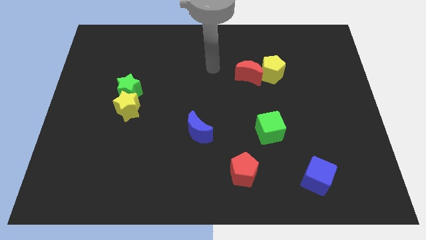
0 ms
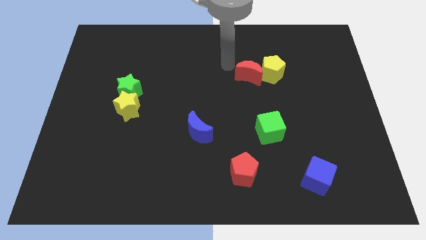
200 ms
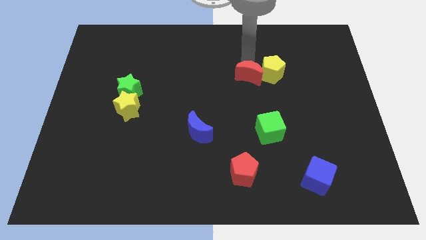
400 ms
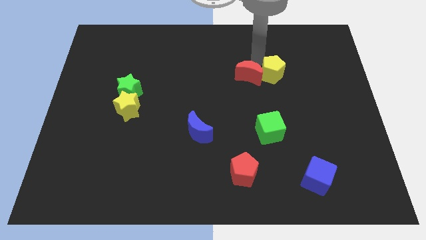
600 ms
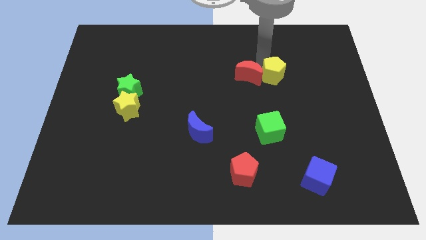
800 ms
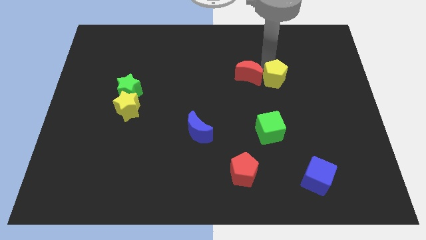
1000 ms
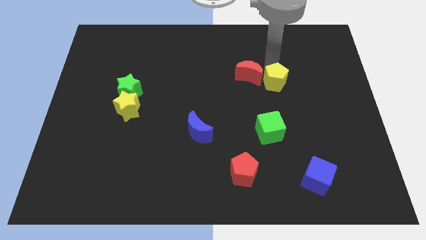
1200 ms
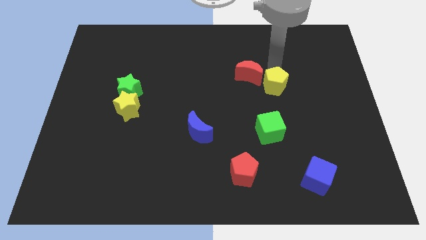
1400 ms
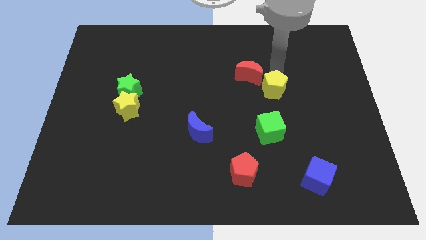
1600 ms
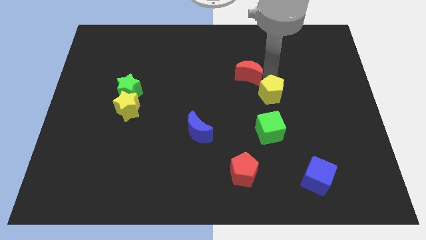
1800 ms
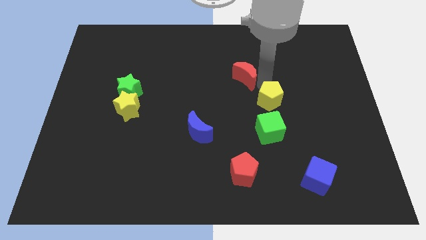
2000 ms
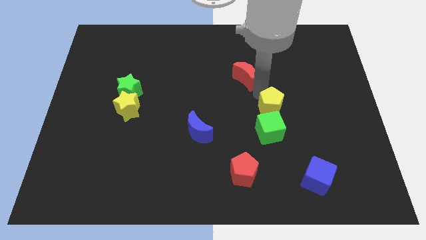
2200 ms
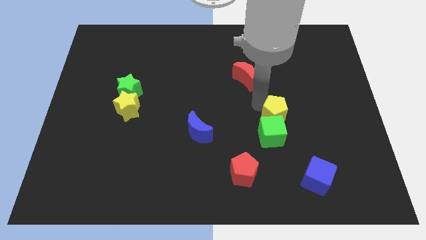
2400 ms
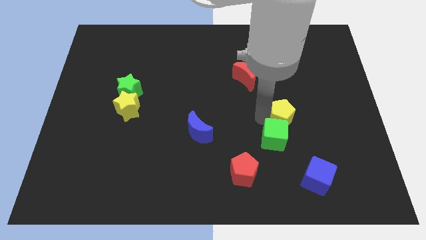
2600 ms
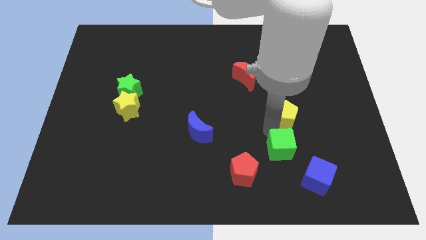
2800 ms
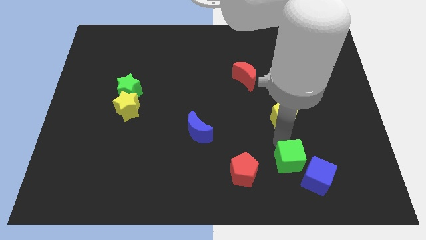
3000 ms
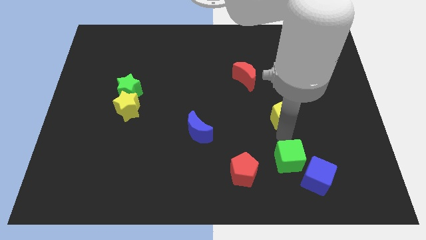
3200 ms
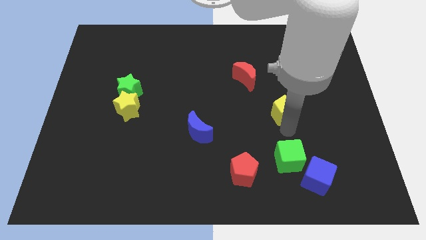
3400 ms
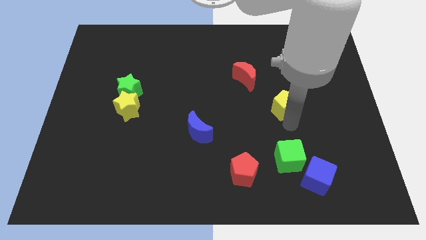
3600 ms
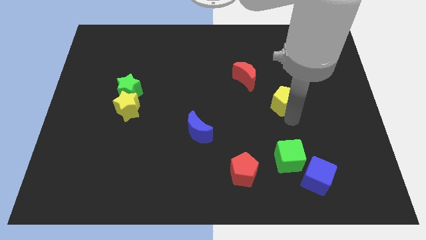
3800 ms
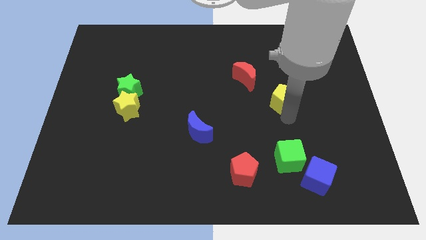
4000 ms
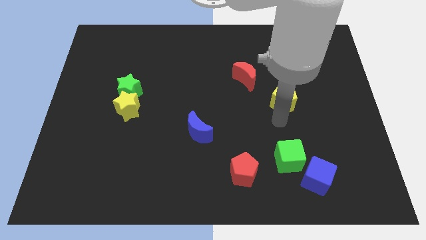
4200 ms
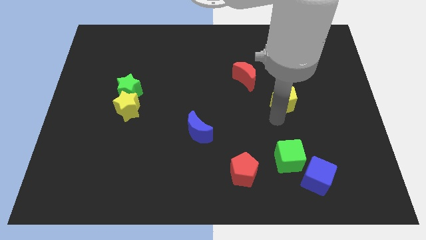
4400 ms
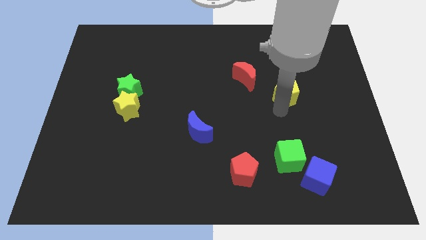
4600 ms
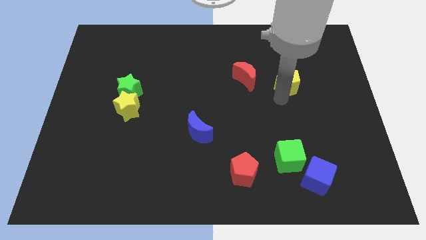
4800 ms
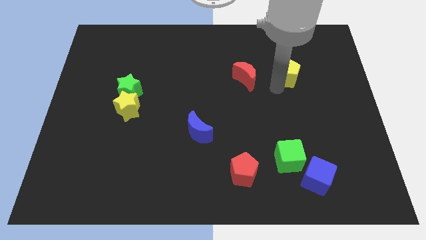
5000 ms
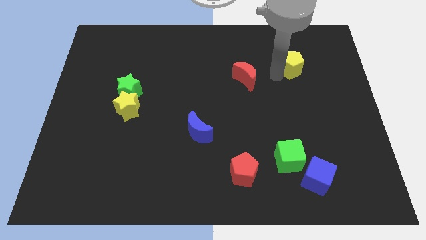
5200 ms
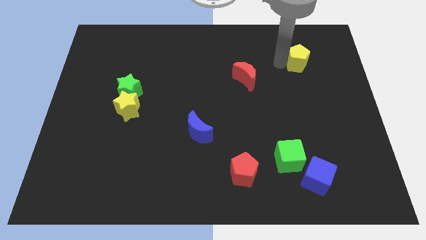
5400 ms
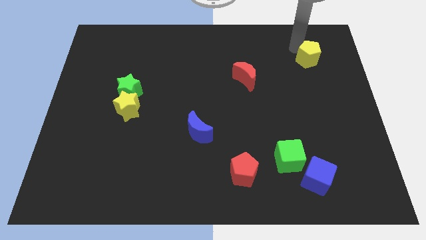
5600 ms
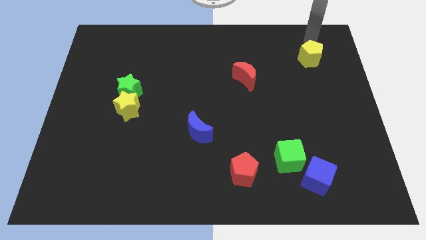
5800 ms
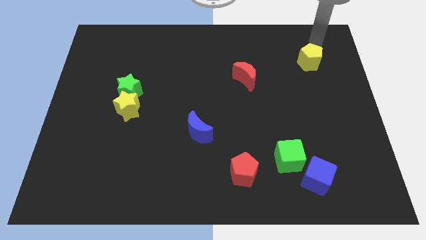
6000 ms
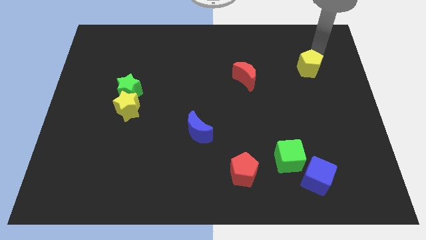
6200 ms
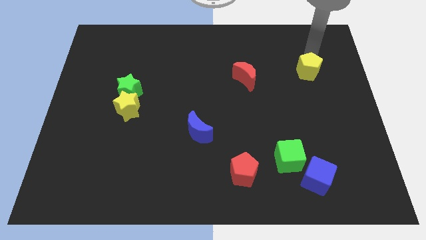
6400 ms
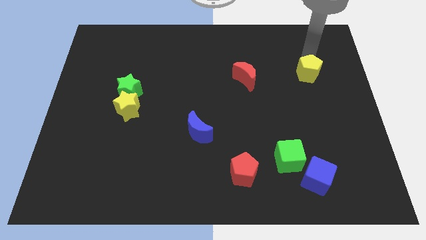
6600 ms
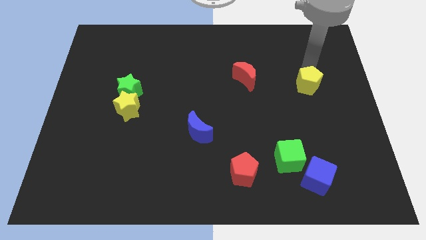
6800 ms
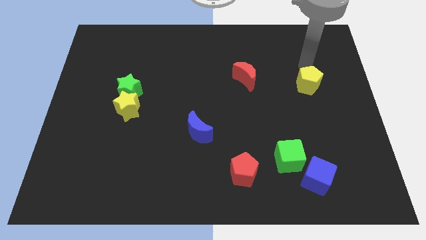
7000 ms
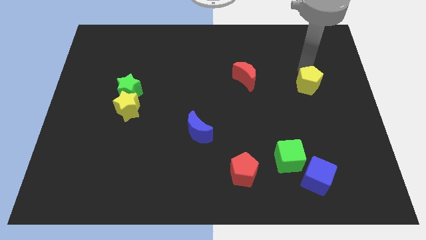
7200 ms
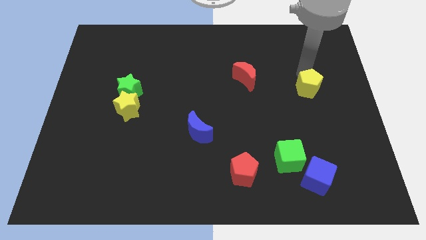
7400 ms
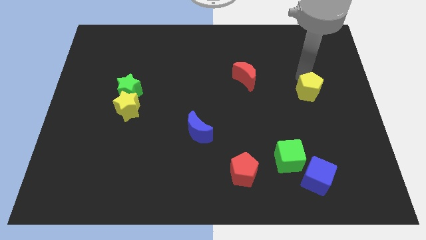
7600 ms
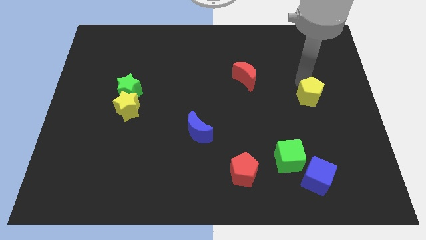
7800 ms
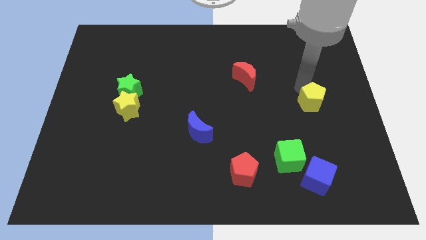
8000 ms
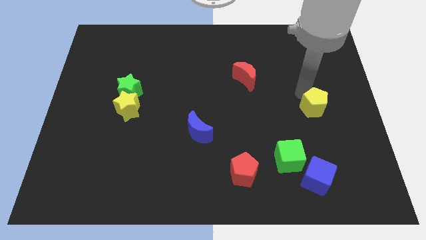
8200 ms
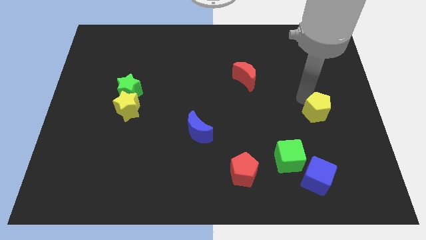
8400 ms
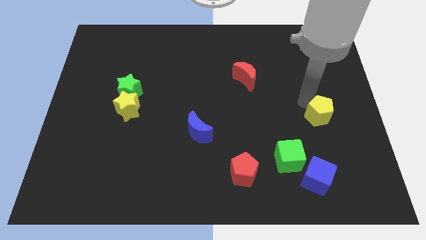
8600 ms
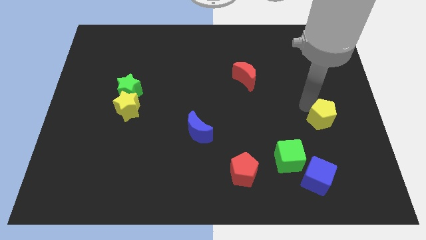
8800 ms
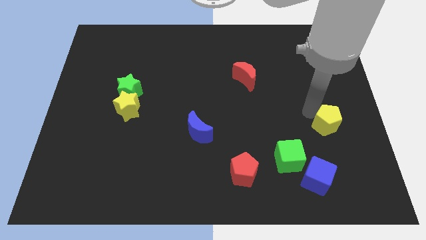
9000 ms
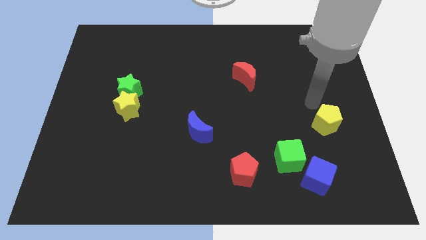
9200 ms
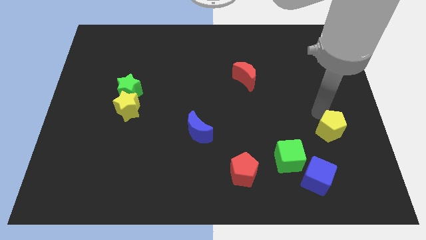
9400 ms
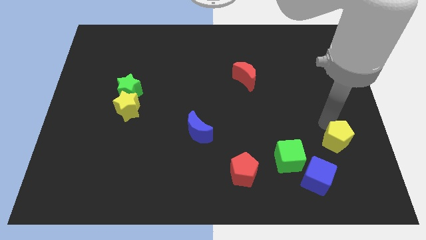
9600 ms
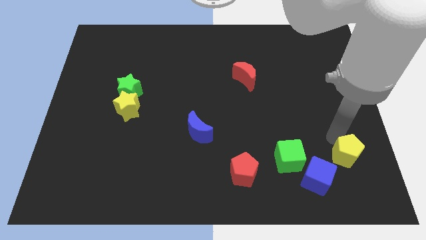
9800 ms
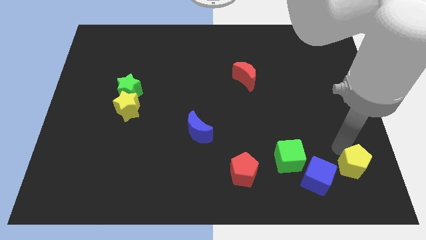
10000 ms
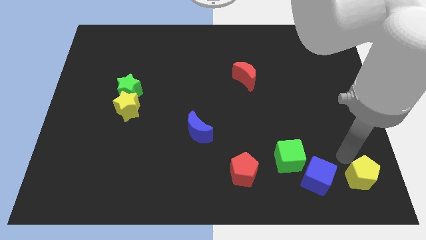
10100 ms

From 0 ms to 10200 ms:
move the yellow pentagon to the bottom right corner

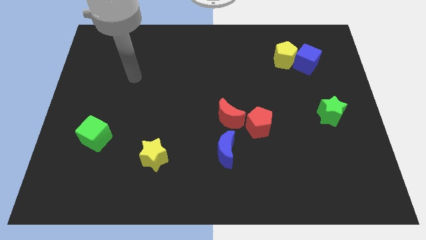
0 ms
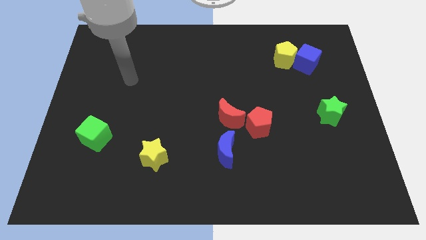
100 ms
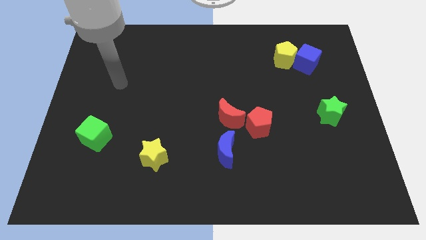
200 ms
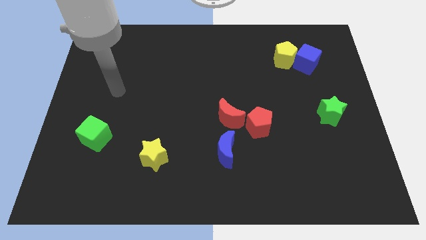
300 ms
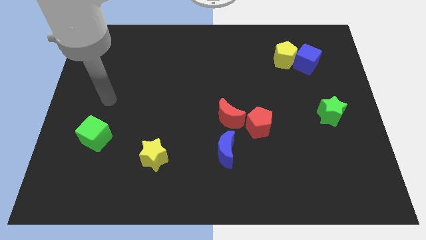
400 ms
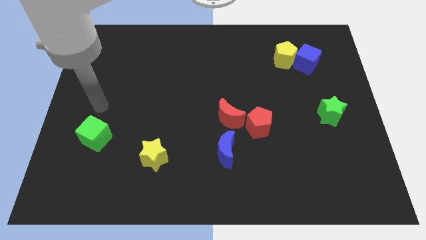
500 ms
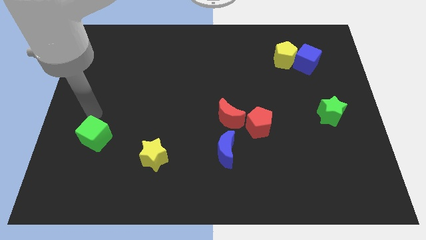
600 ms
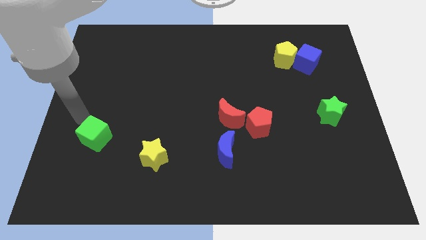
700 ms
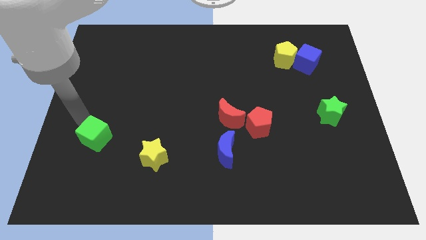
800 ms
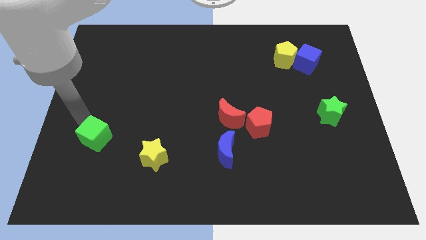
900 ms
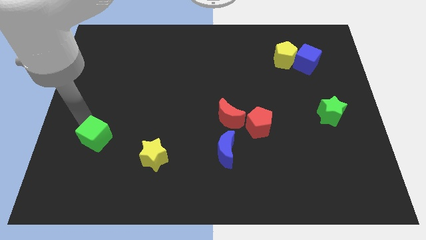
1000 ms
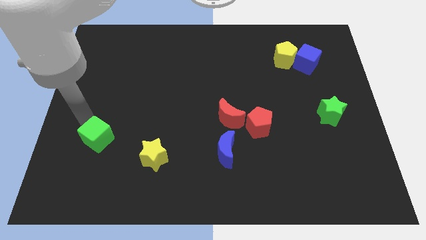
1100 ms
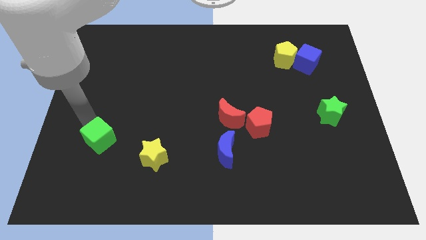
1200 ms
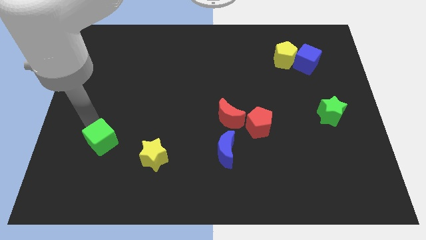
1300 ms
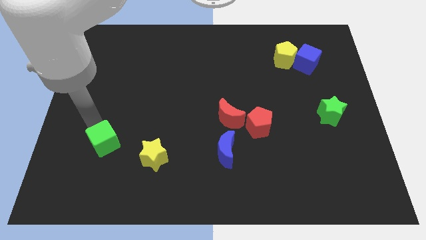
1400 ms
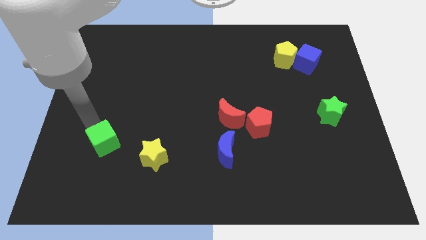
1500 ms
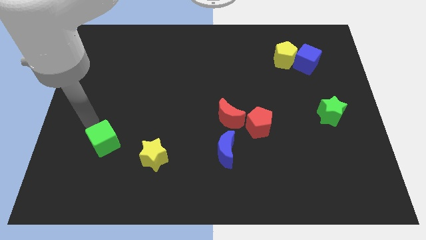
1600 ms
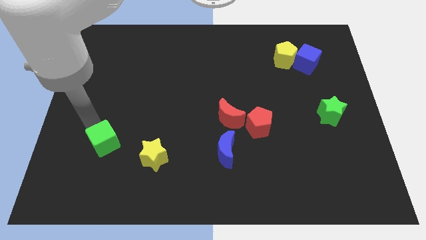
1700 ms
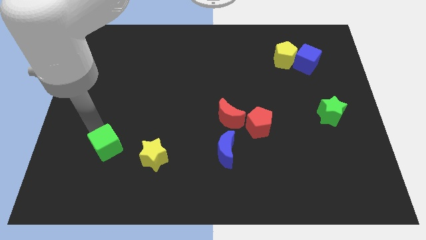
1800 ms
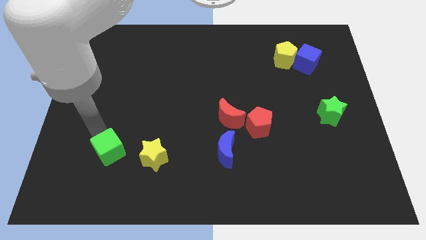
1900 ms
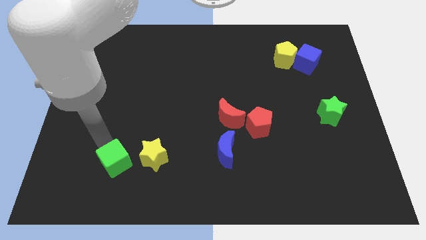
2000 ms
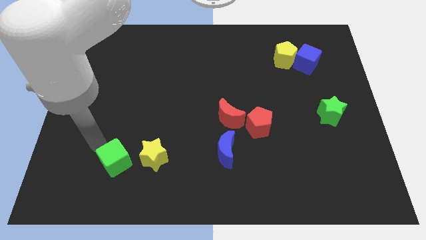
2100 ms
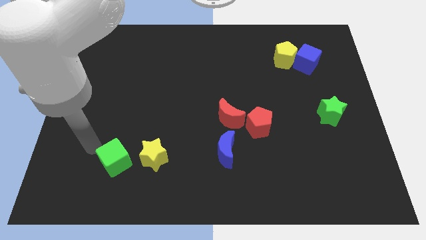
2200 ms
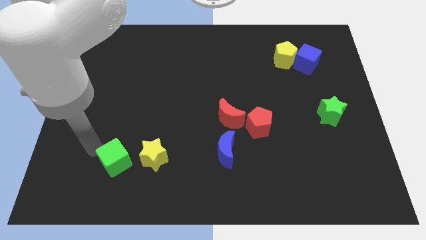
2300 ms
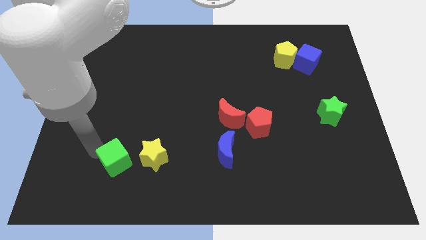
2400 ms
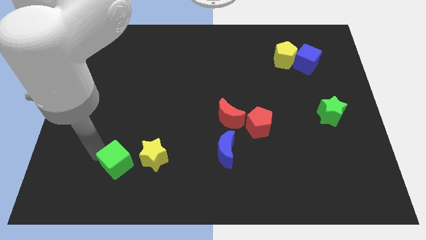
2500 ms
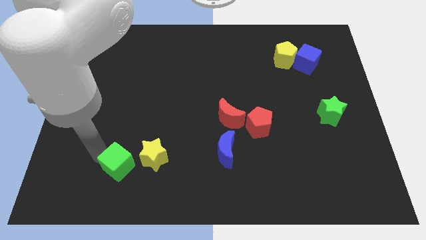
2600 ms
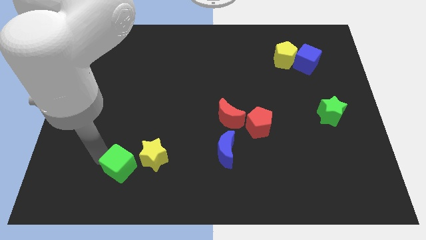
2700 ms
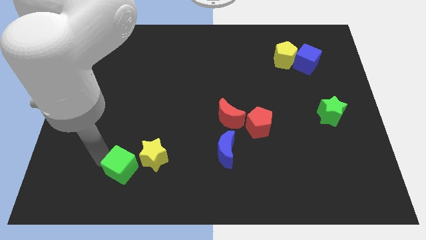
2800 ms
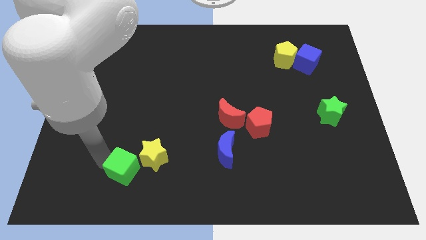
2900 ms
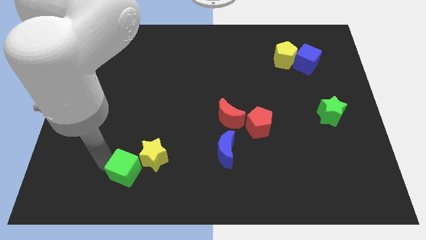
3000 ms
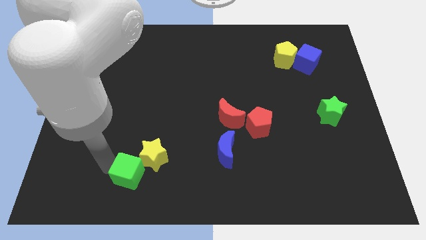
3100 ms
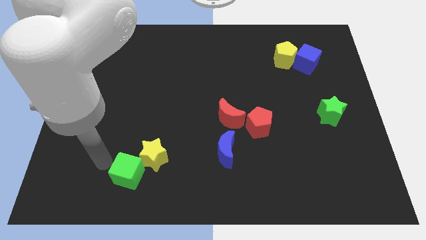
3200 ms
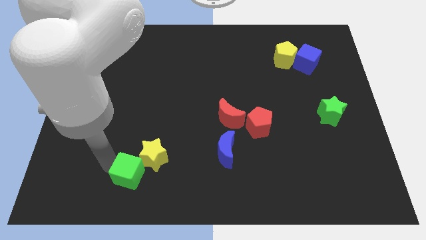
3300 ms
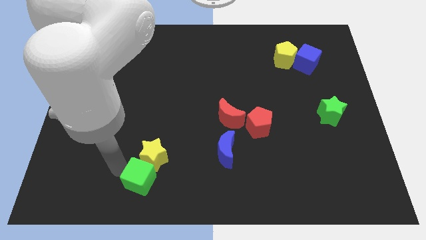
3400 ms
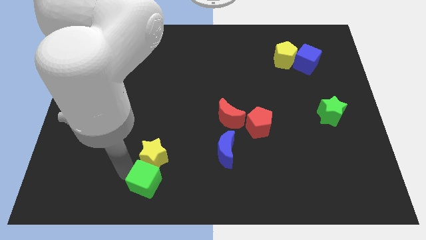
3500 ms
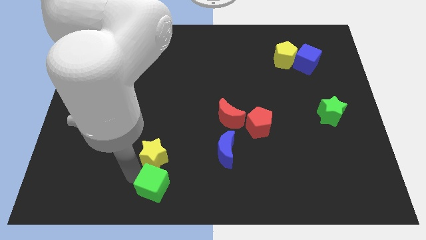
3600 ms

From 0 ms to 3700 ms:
put the green cube to the bottom side
